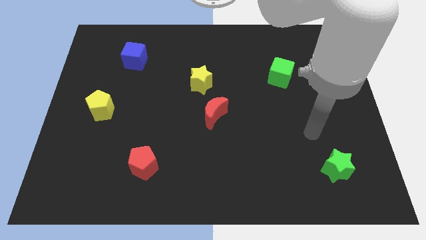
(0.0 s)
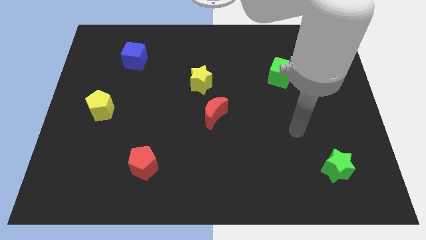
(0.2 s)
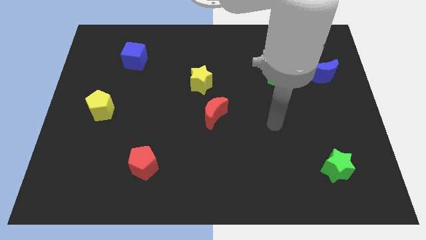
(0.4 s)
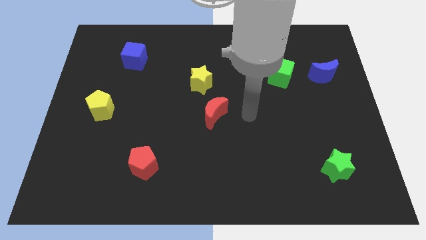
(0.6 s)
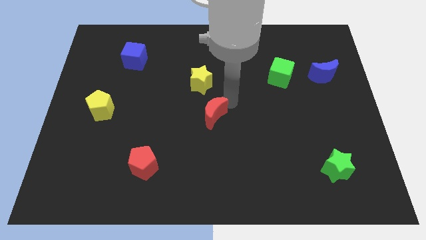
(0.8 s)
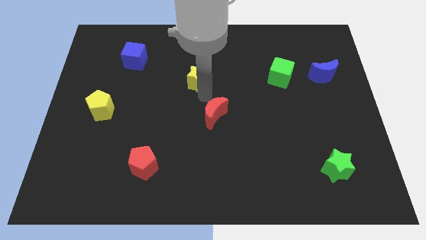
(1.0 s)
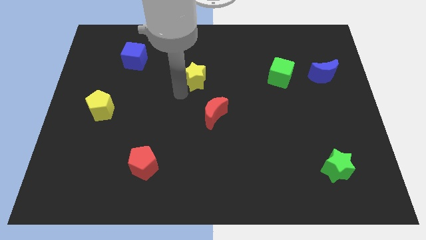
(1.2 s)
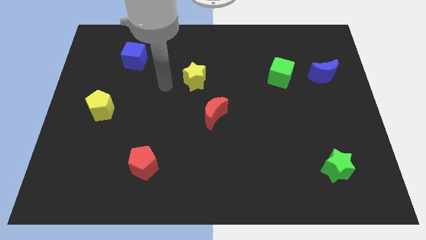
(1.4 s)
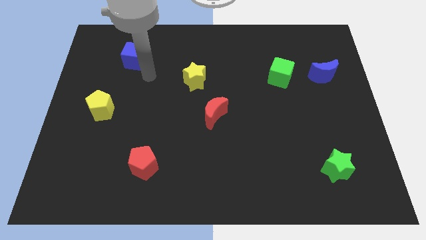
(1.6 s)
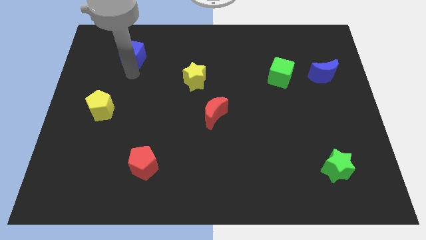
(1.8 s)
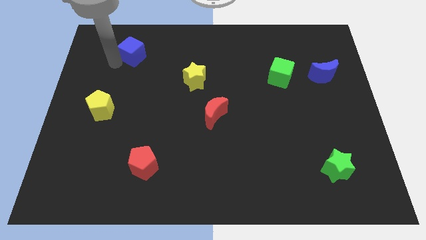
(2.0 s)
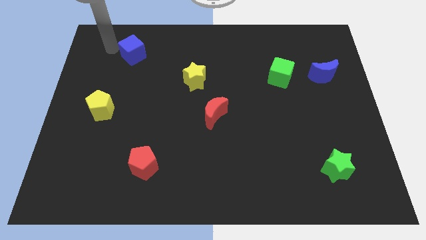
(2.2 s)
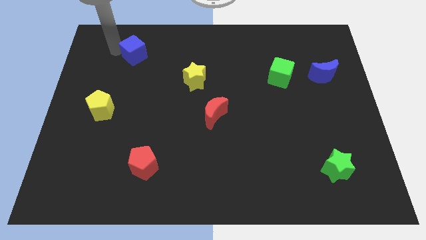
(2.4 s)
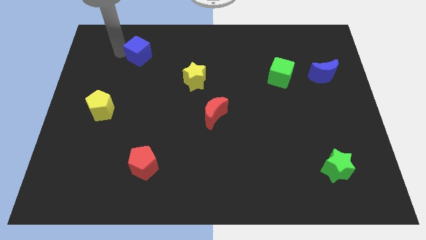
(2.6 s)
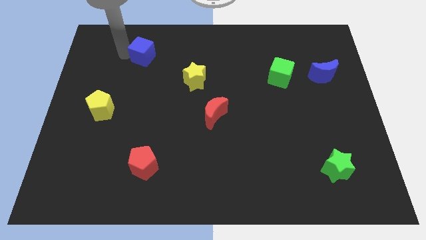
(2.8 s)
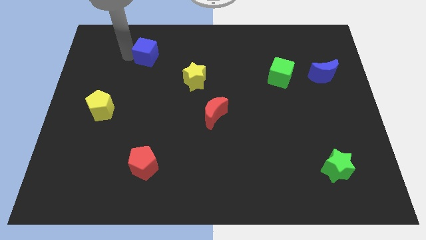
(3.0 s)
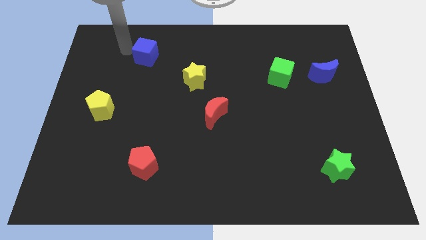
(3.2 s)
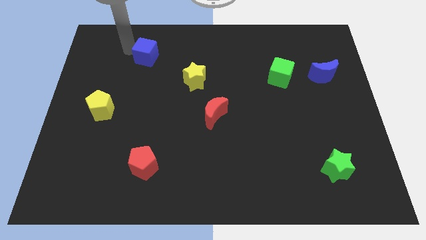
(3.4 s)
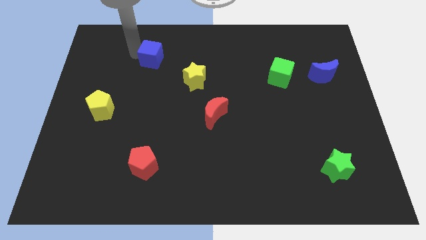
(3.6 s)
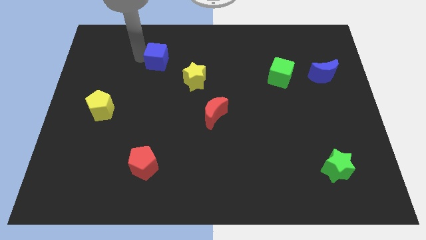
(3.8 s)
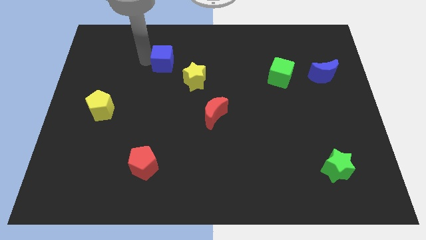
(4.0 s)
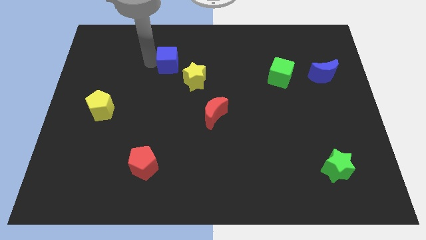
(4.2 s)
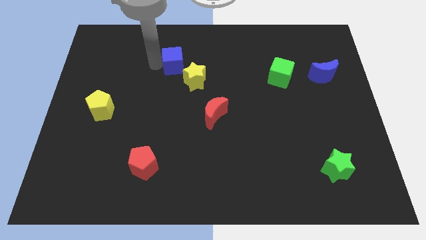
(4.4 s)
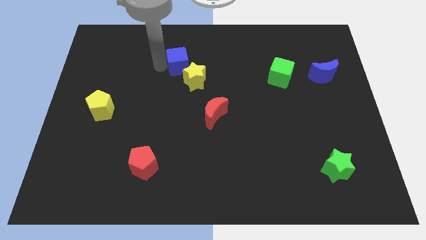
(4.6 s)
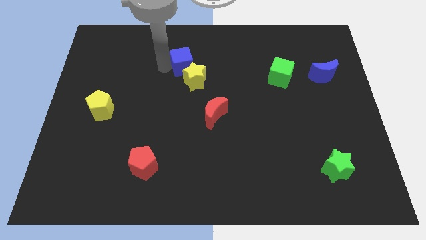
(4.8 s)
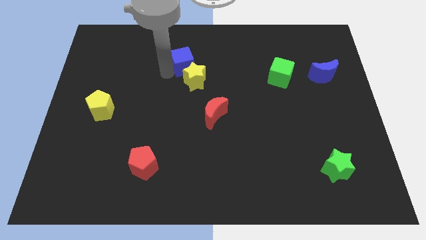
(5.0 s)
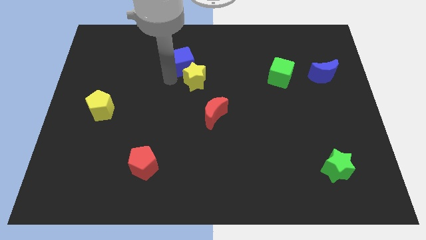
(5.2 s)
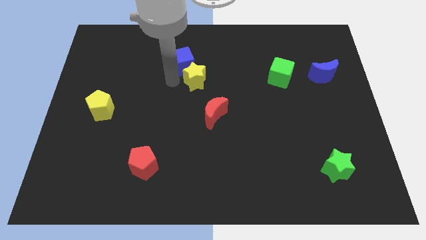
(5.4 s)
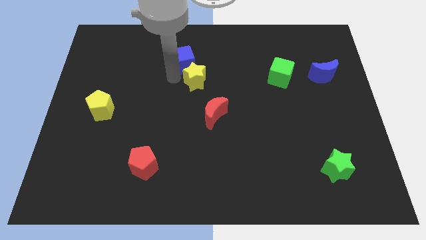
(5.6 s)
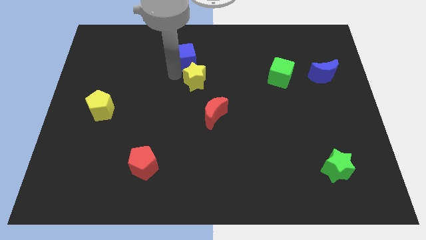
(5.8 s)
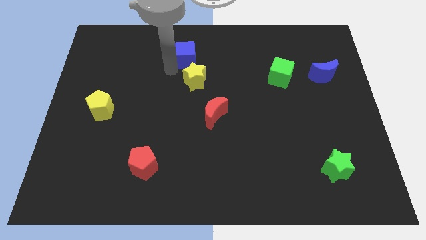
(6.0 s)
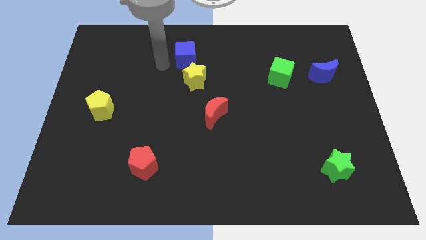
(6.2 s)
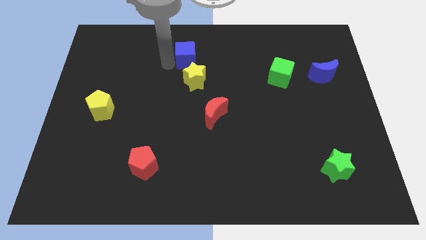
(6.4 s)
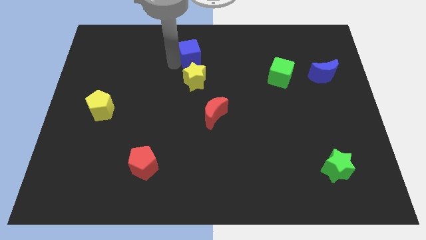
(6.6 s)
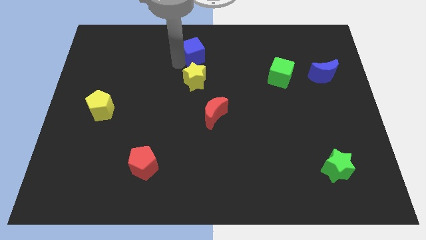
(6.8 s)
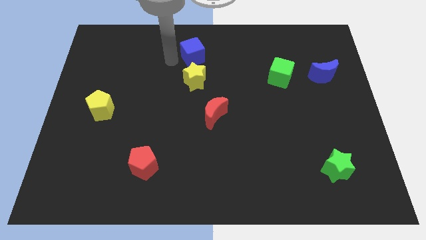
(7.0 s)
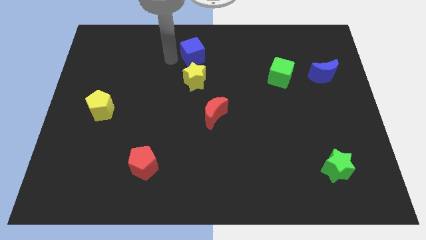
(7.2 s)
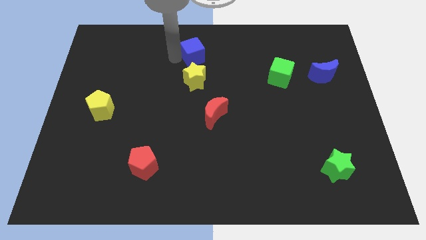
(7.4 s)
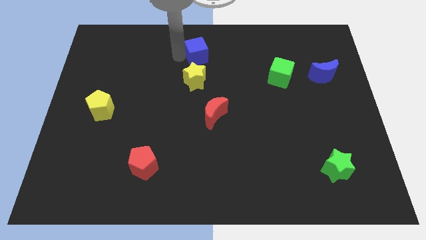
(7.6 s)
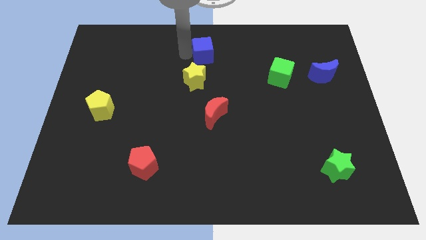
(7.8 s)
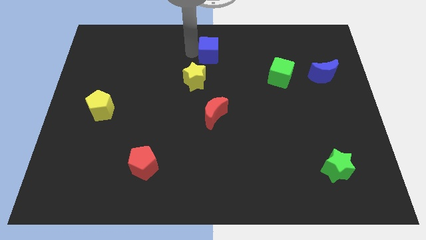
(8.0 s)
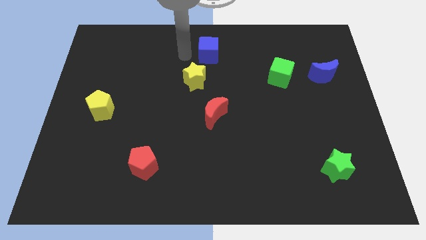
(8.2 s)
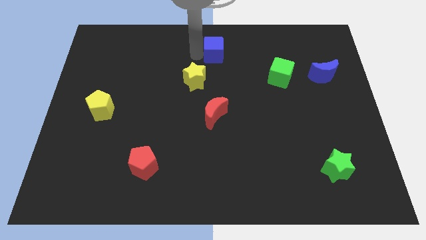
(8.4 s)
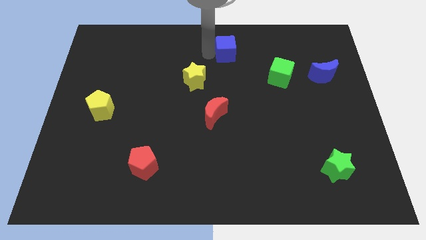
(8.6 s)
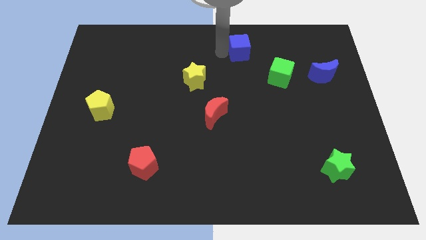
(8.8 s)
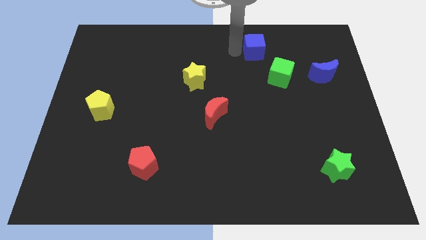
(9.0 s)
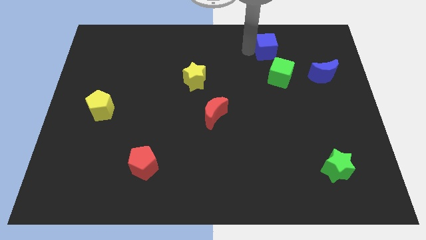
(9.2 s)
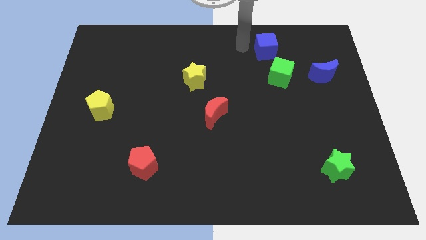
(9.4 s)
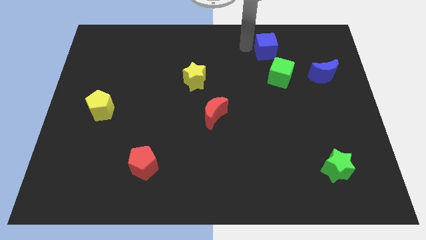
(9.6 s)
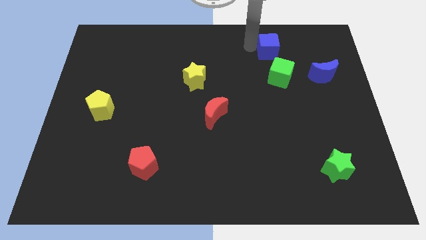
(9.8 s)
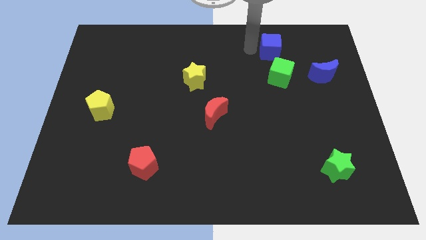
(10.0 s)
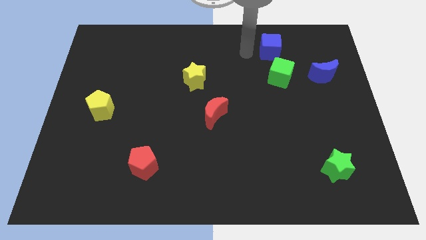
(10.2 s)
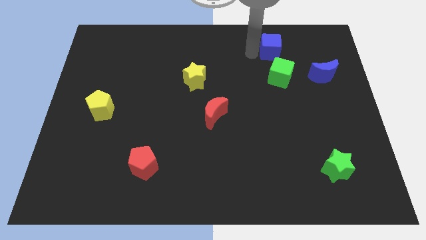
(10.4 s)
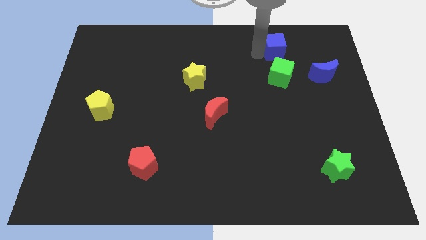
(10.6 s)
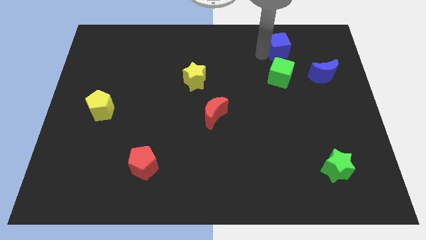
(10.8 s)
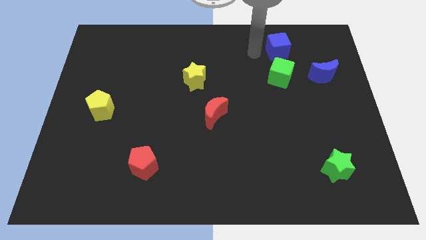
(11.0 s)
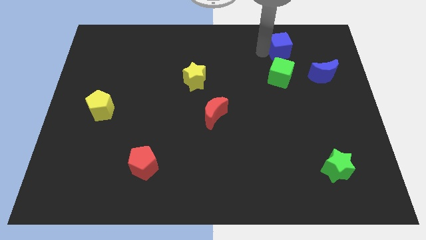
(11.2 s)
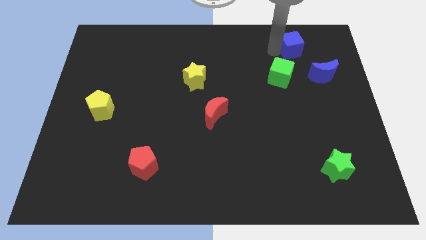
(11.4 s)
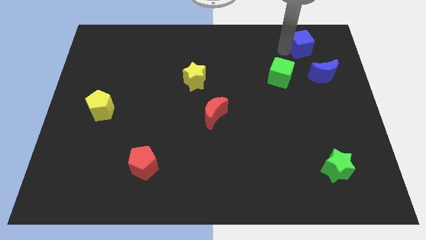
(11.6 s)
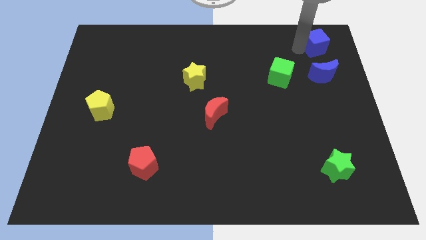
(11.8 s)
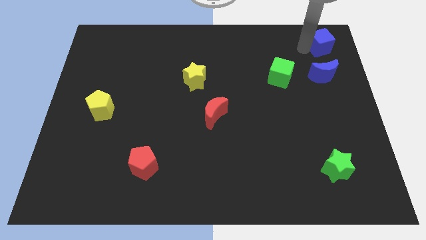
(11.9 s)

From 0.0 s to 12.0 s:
put the blue cube to the top right corner

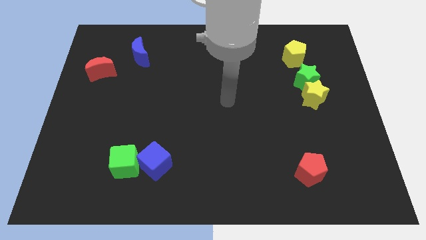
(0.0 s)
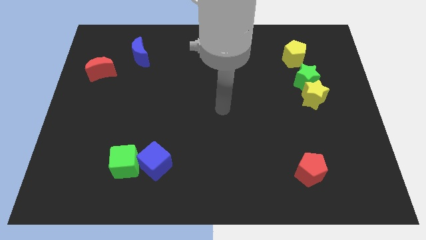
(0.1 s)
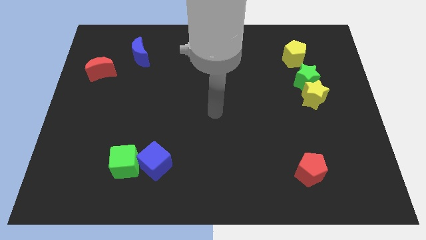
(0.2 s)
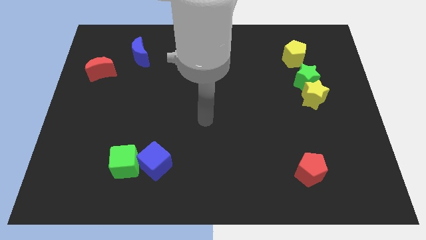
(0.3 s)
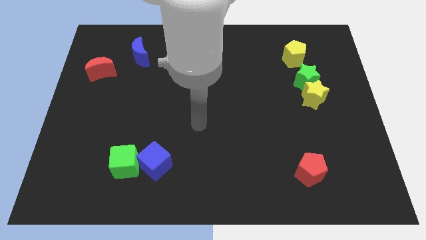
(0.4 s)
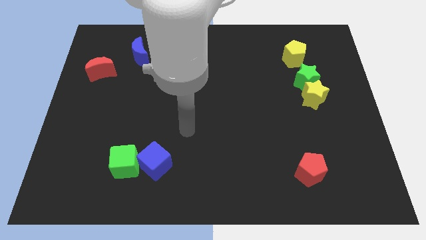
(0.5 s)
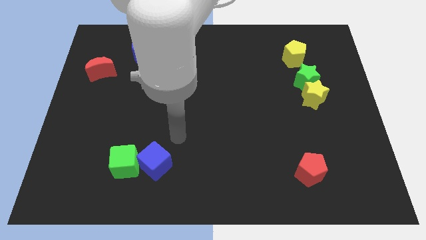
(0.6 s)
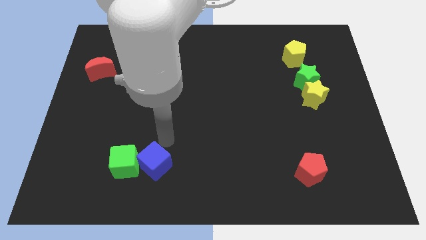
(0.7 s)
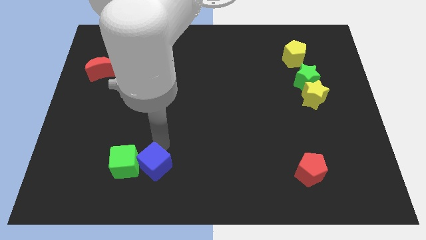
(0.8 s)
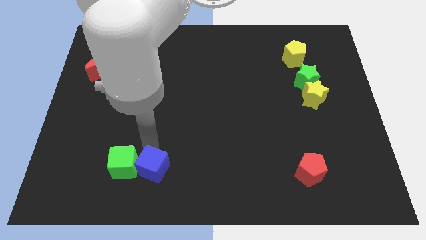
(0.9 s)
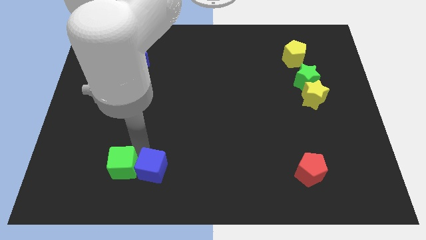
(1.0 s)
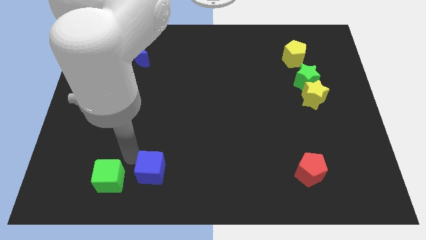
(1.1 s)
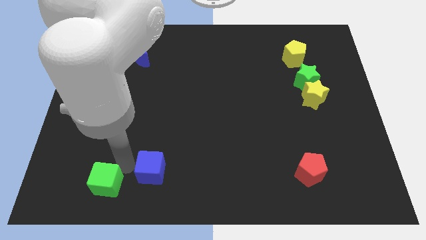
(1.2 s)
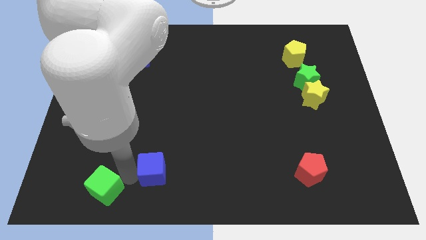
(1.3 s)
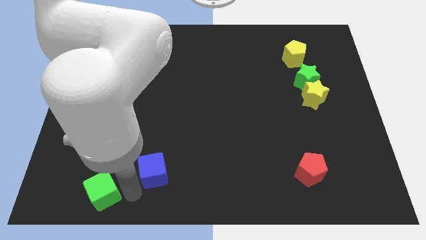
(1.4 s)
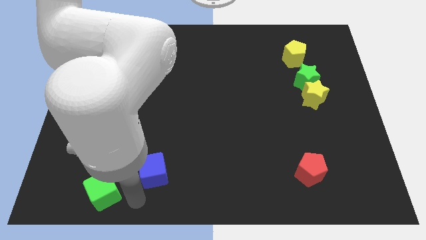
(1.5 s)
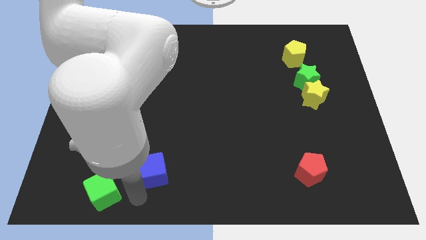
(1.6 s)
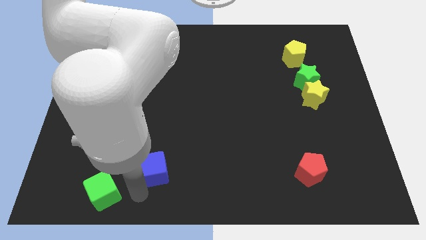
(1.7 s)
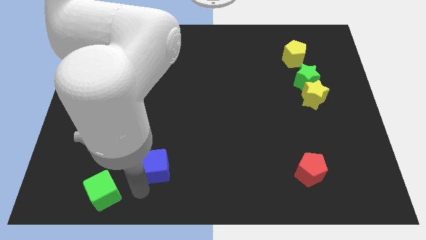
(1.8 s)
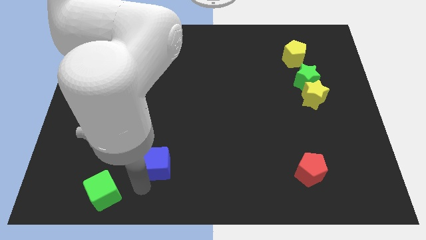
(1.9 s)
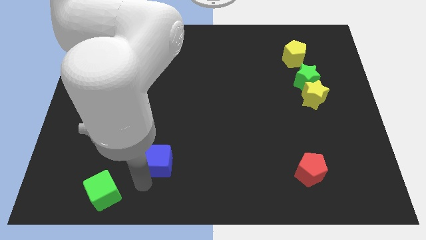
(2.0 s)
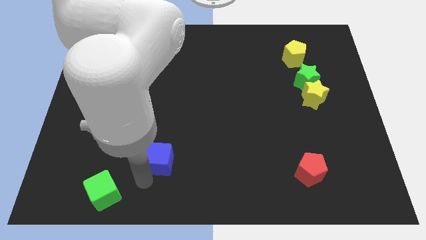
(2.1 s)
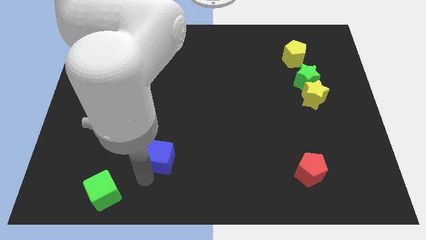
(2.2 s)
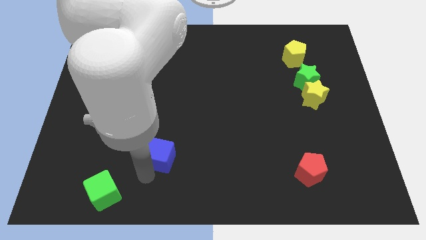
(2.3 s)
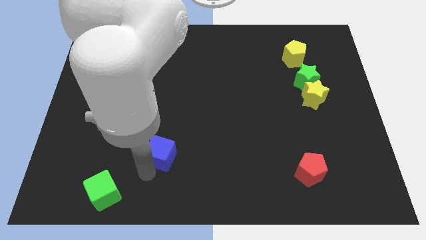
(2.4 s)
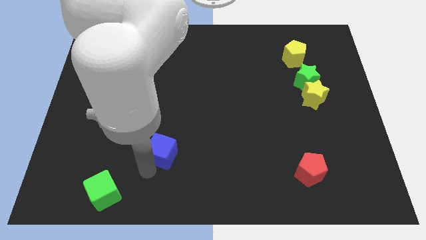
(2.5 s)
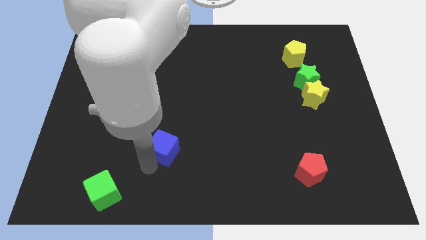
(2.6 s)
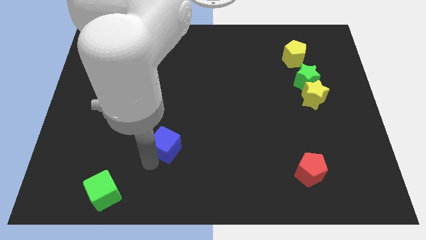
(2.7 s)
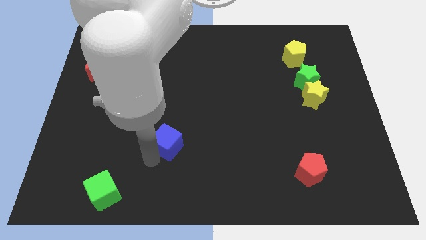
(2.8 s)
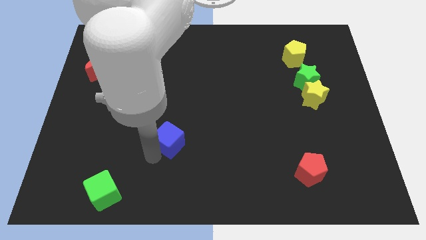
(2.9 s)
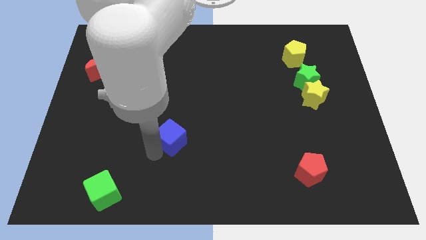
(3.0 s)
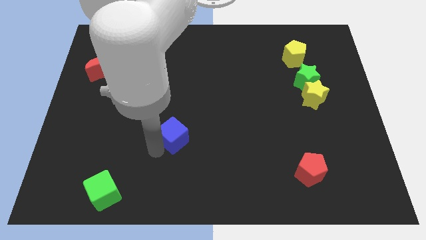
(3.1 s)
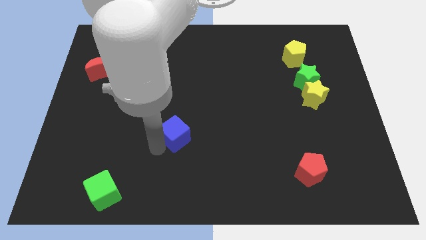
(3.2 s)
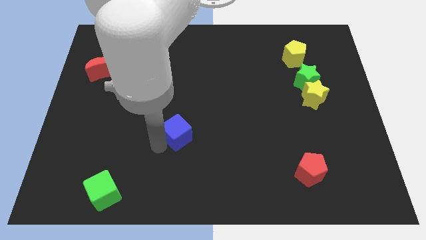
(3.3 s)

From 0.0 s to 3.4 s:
push the blue cube to the center
